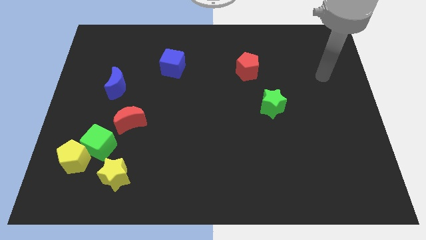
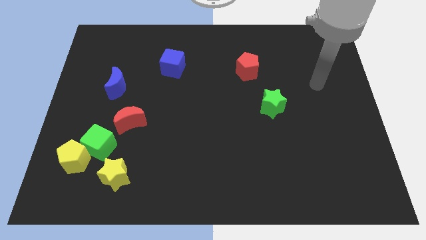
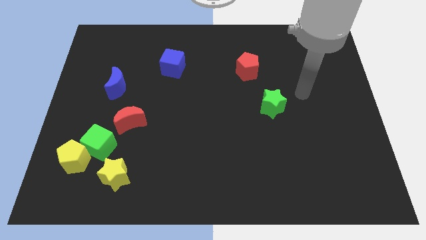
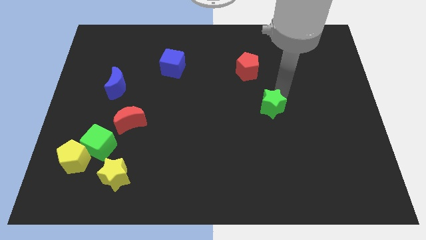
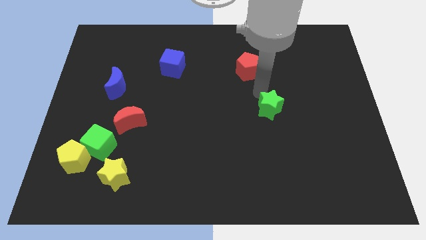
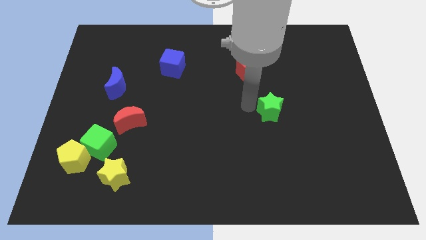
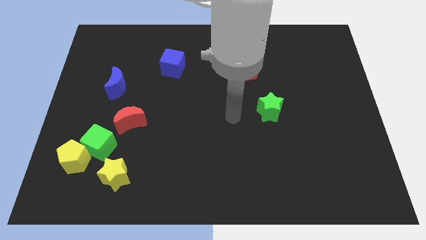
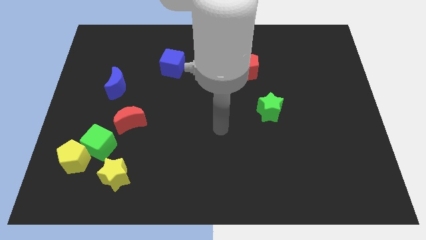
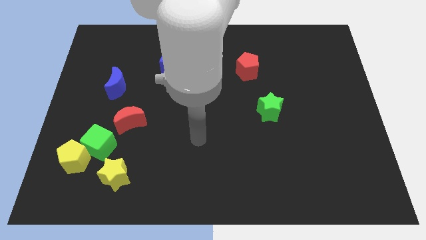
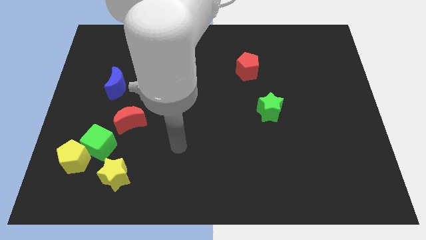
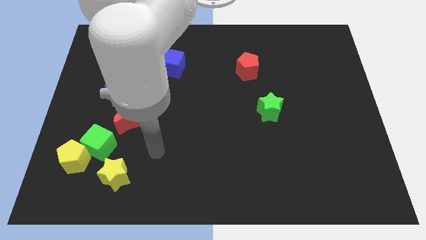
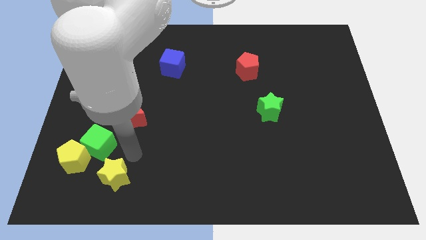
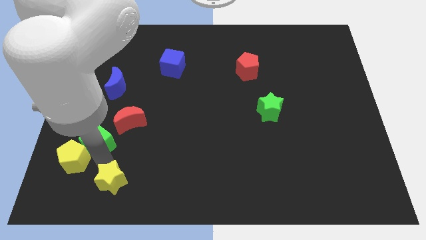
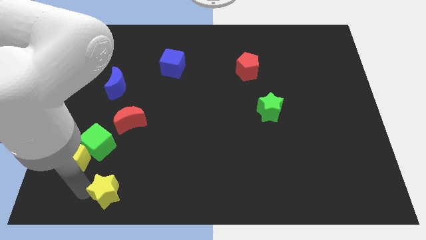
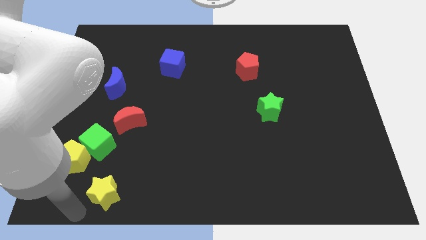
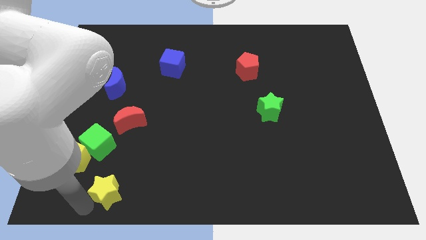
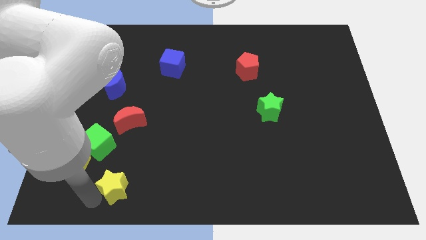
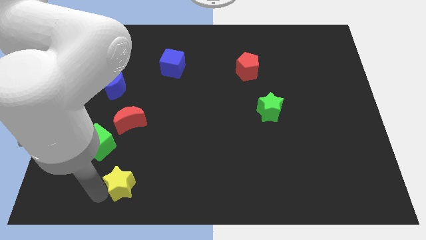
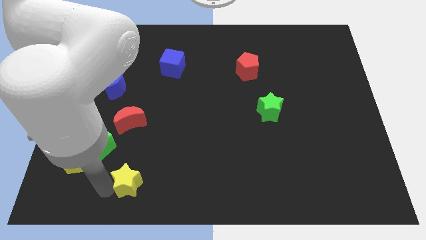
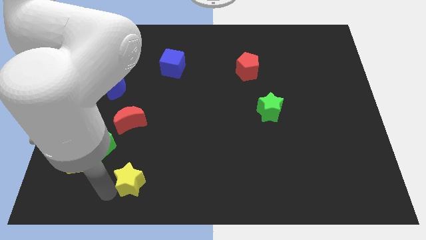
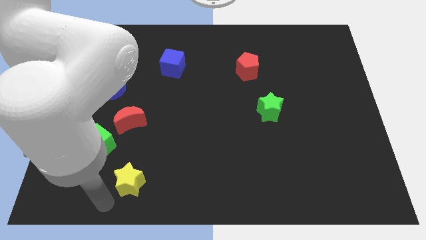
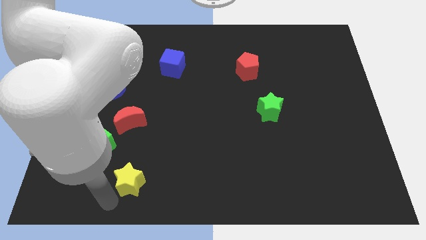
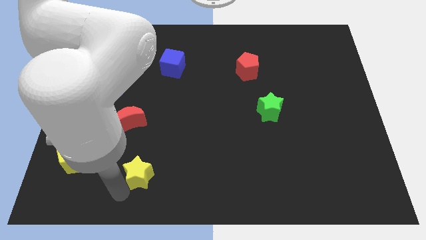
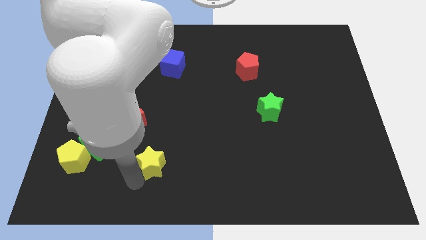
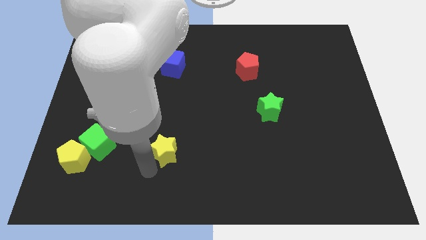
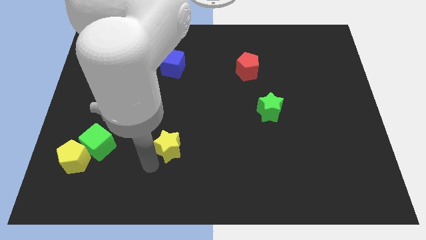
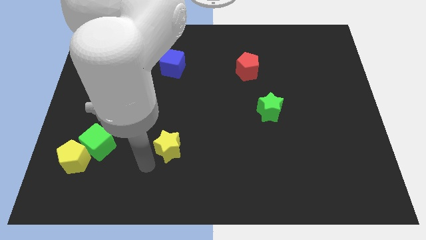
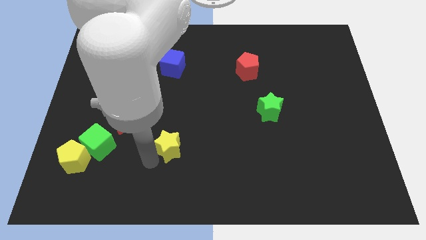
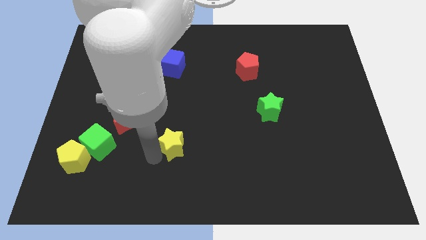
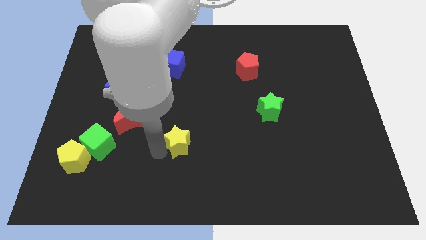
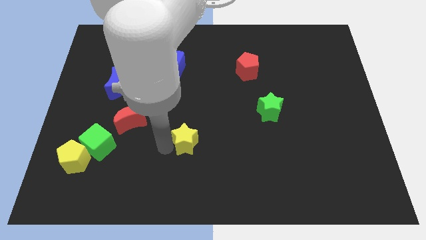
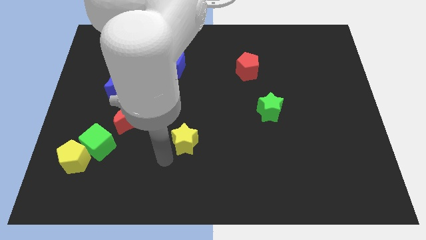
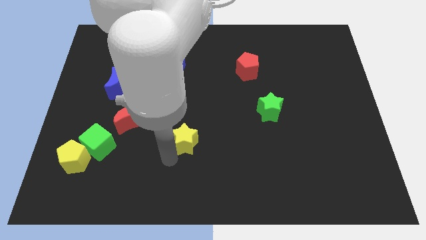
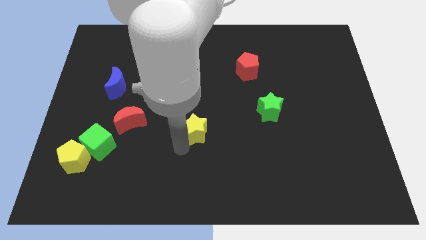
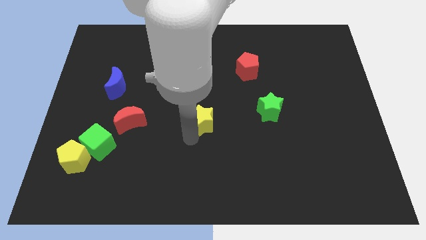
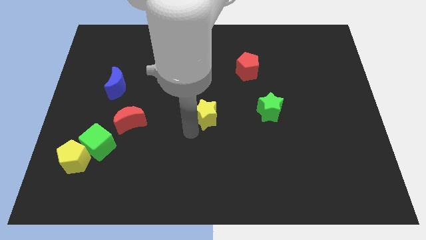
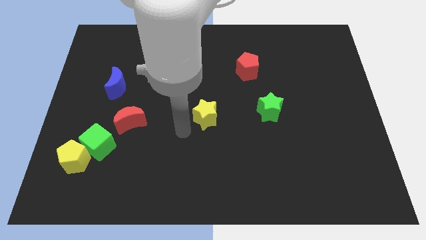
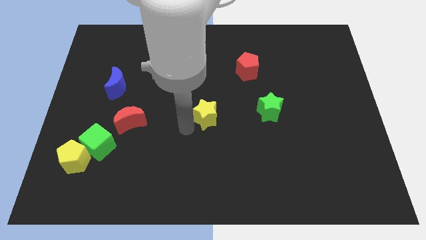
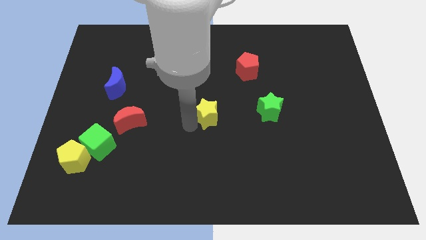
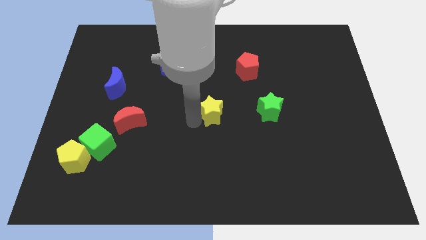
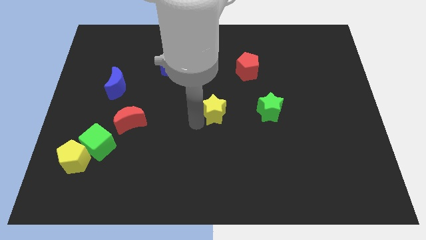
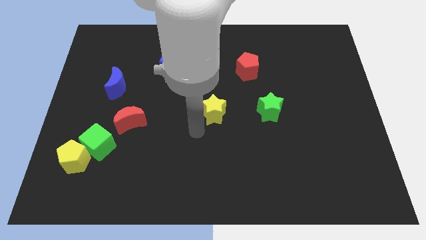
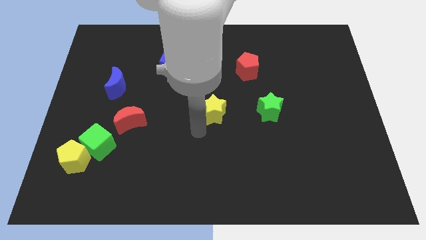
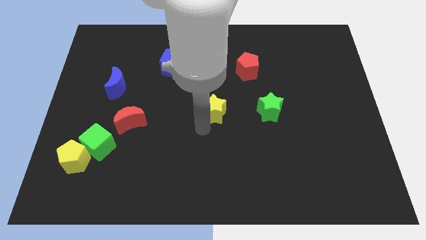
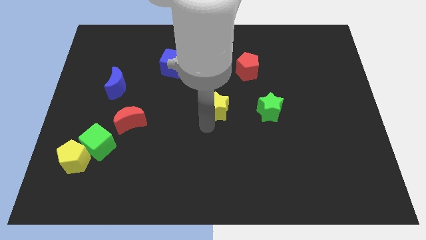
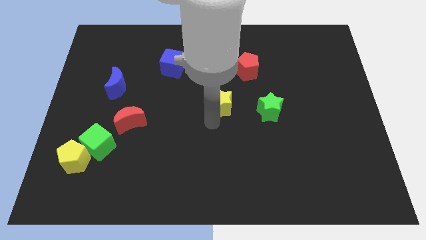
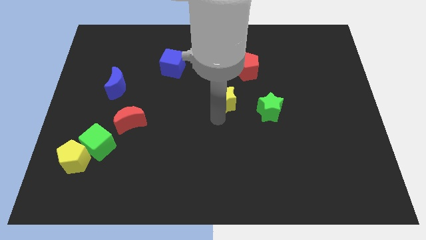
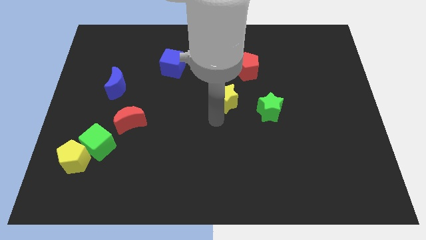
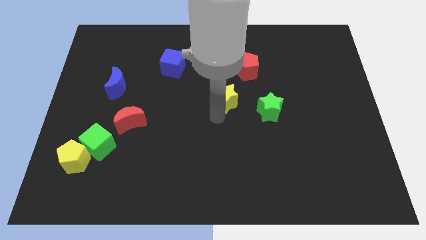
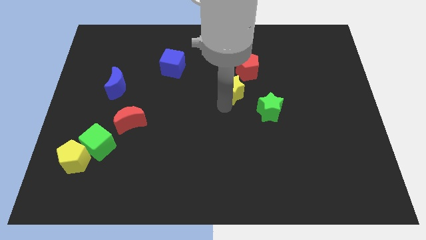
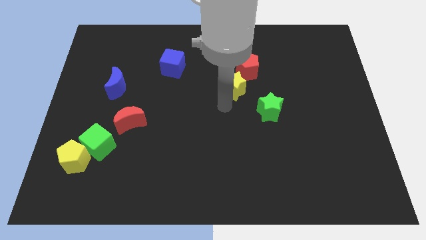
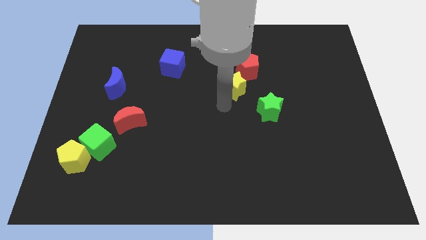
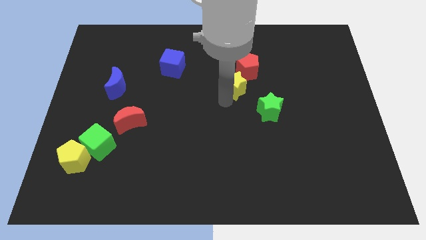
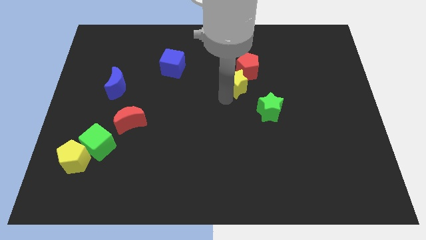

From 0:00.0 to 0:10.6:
slide the yellow star close to the red pentagon

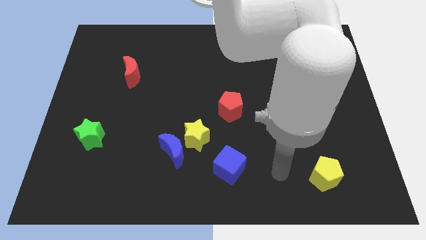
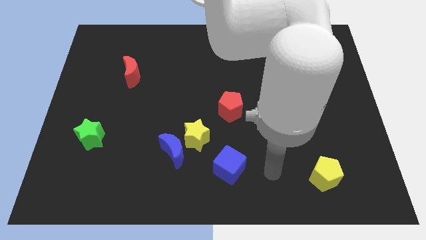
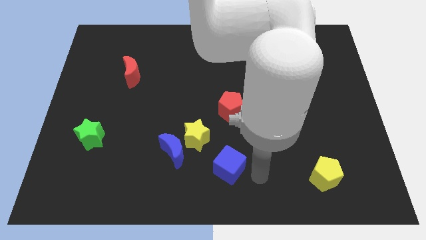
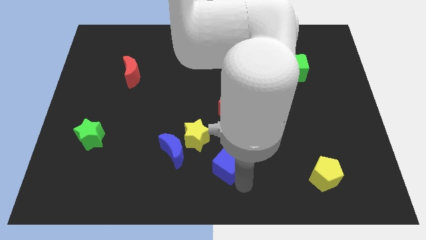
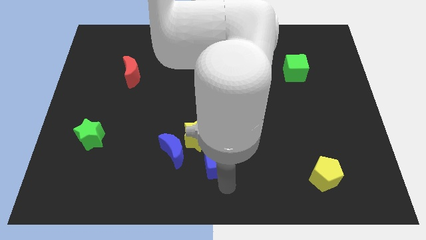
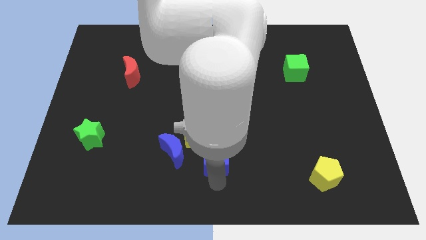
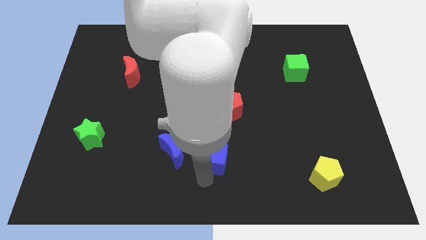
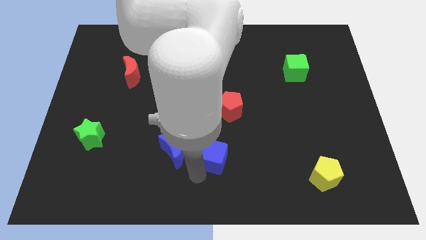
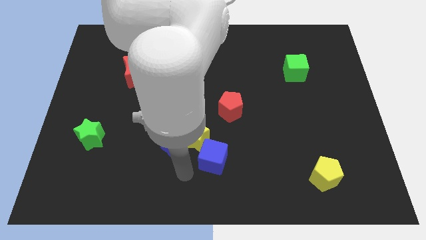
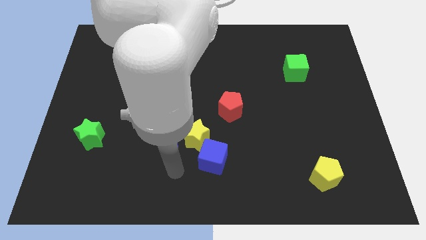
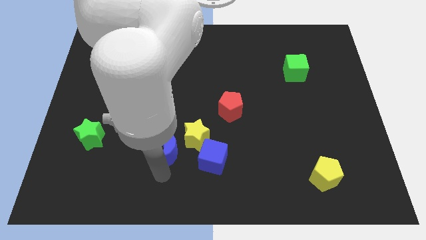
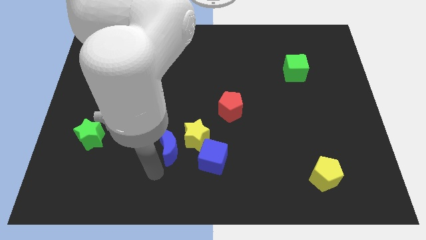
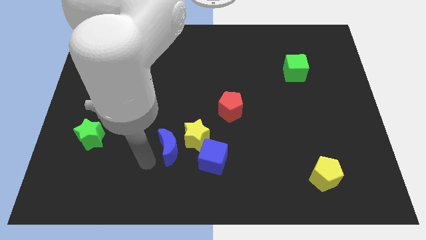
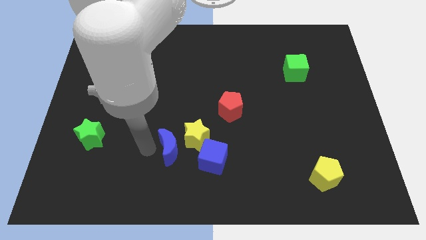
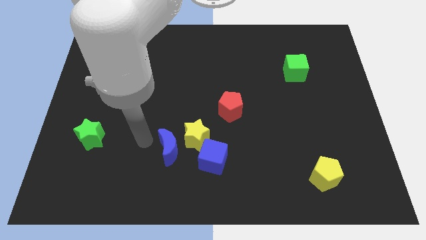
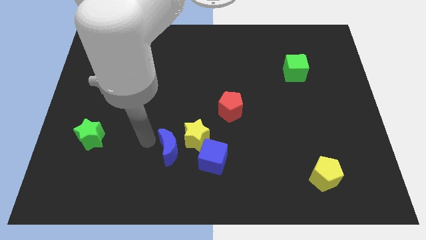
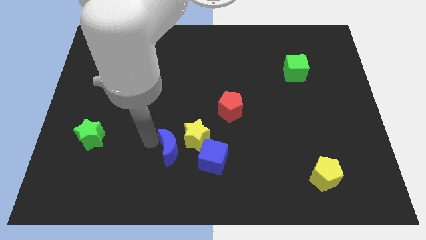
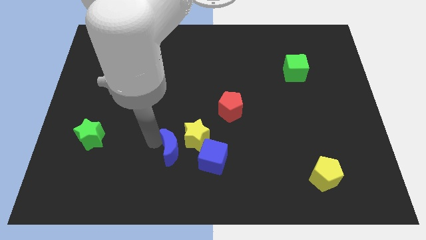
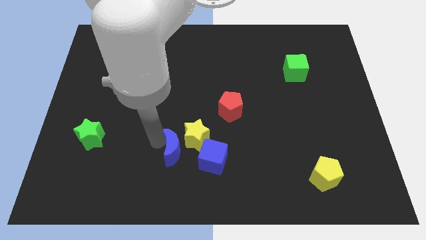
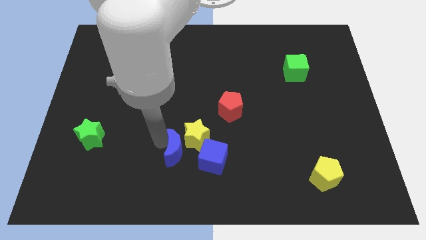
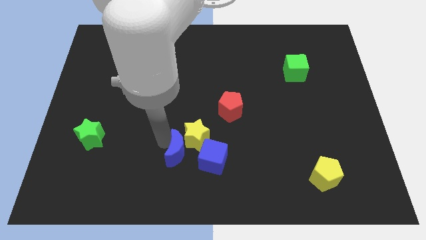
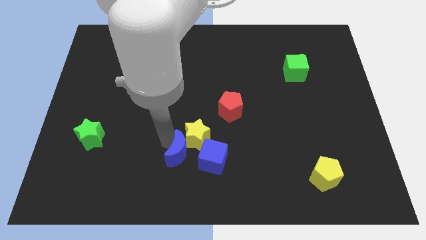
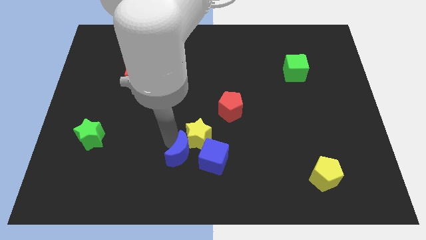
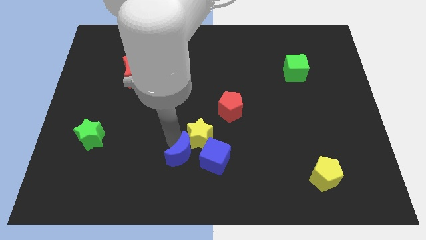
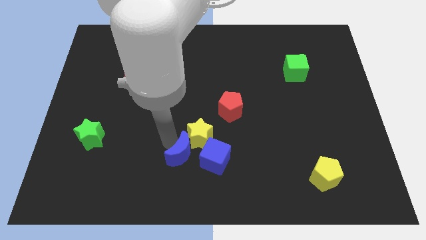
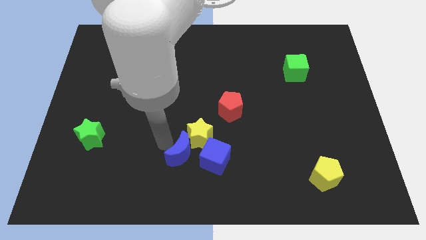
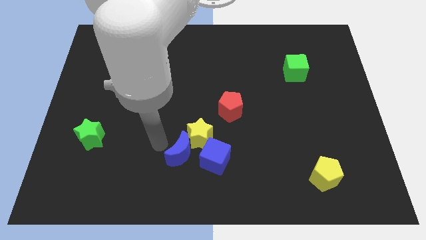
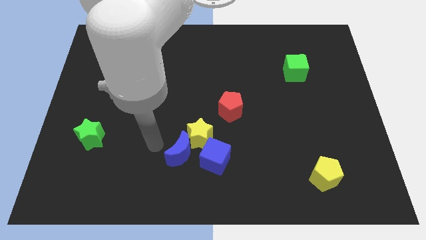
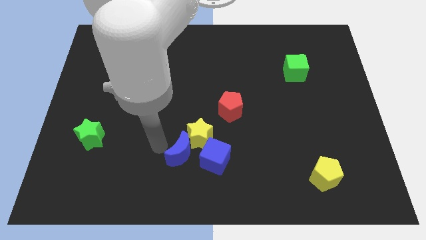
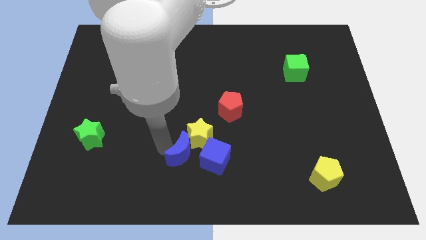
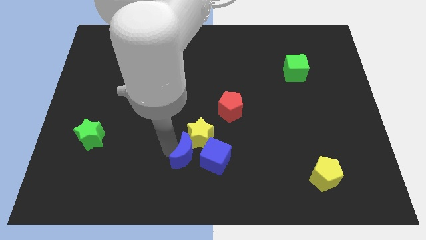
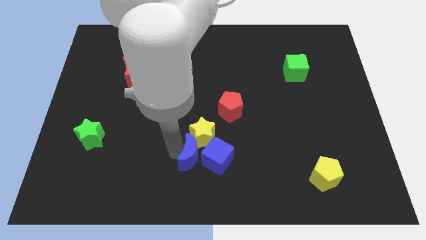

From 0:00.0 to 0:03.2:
slide the blue moon to the blue cube
